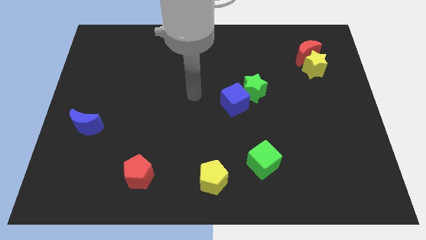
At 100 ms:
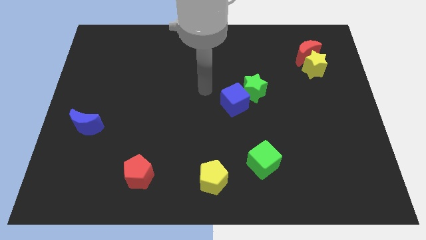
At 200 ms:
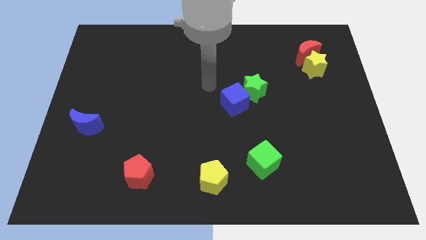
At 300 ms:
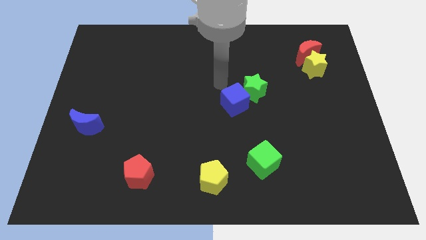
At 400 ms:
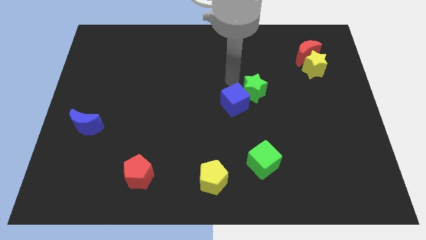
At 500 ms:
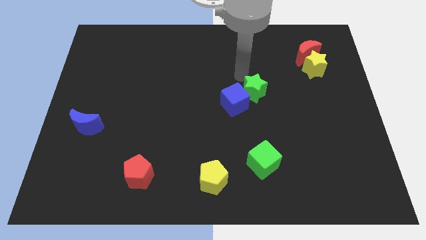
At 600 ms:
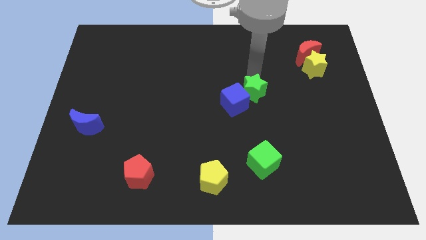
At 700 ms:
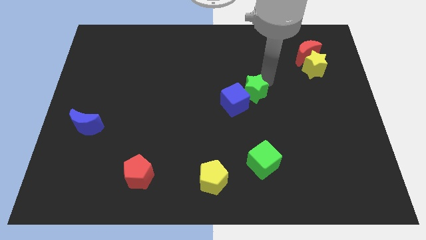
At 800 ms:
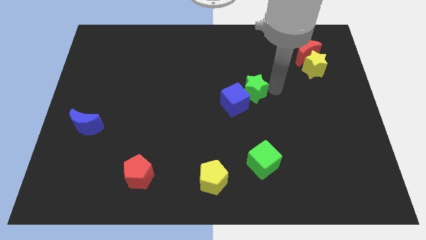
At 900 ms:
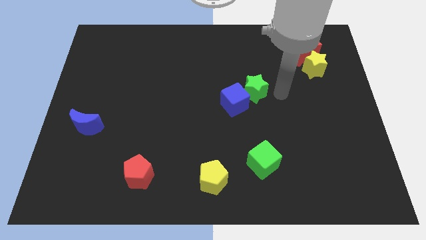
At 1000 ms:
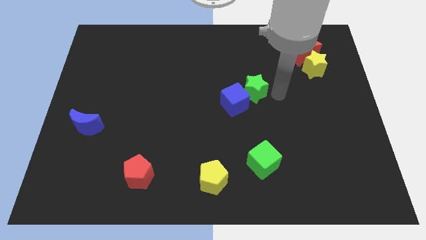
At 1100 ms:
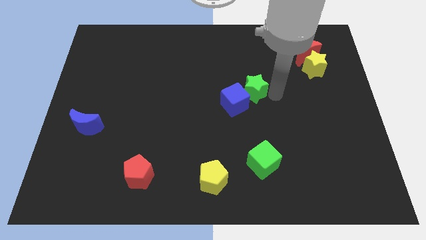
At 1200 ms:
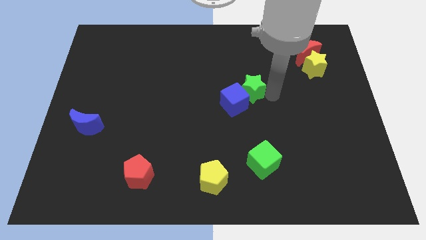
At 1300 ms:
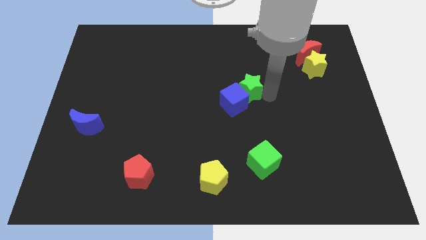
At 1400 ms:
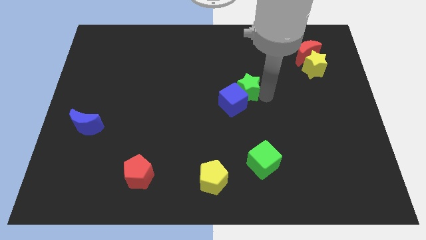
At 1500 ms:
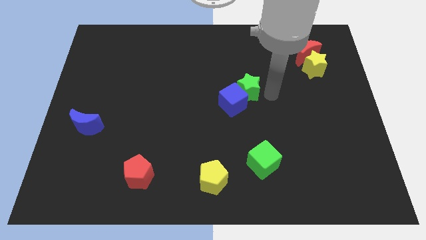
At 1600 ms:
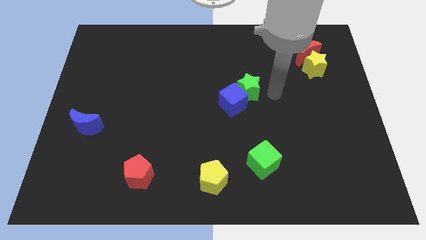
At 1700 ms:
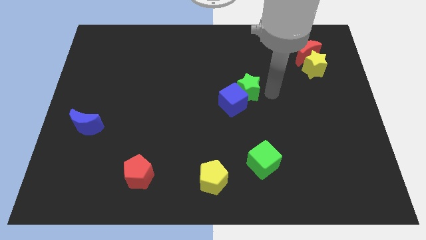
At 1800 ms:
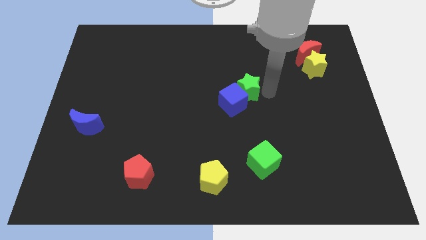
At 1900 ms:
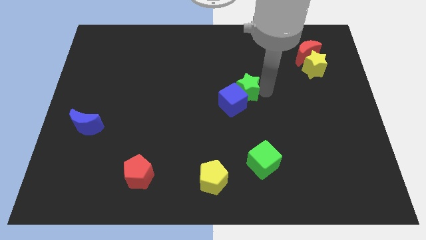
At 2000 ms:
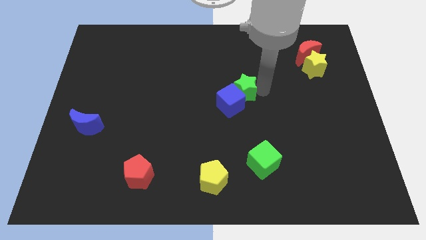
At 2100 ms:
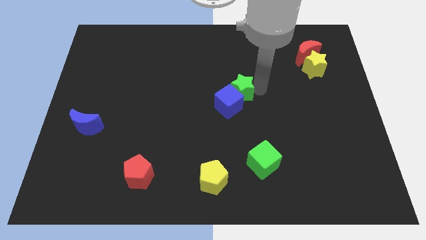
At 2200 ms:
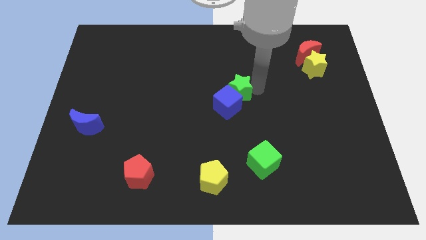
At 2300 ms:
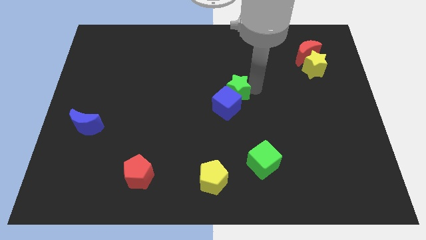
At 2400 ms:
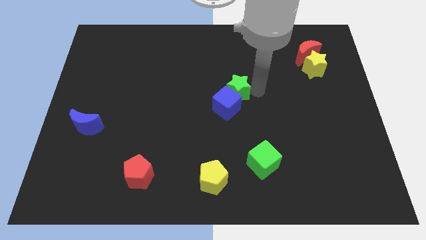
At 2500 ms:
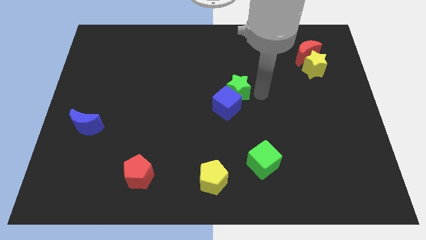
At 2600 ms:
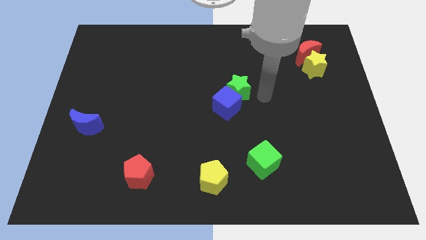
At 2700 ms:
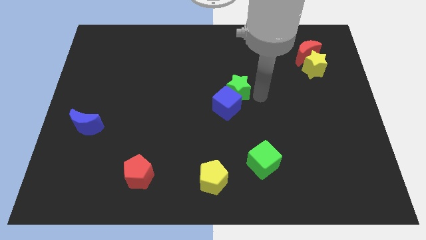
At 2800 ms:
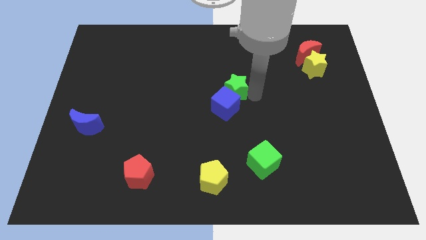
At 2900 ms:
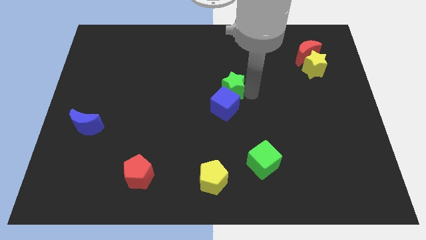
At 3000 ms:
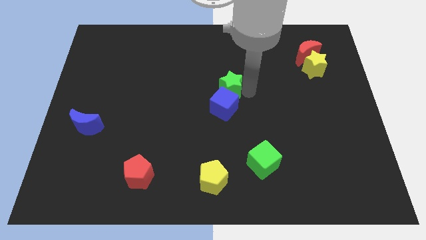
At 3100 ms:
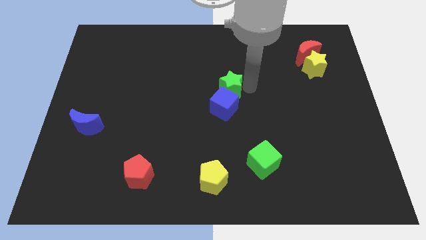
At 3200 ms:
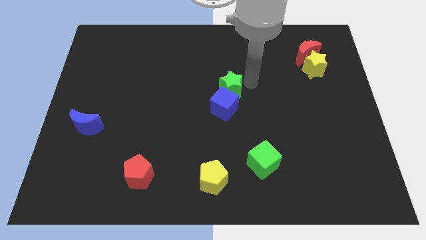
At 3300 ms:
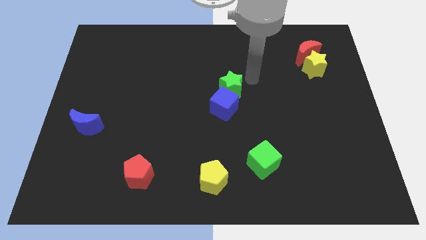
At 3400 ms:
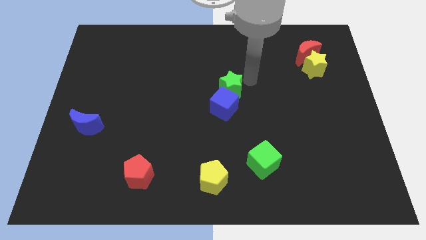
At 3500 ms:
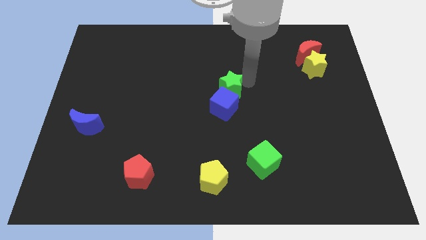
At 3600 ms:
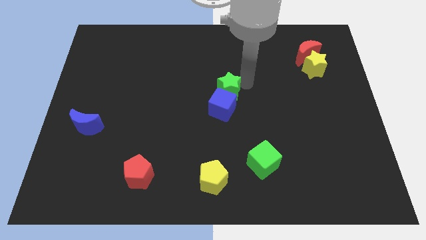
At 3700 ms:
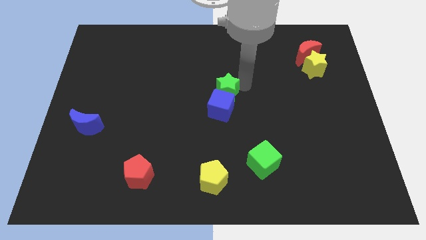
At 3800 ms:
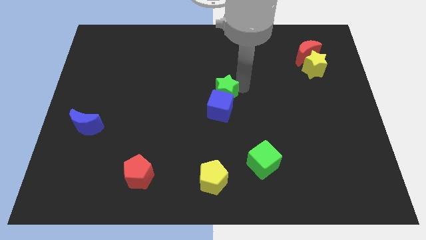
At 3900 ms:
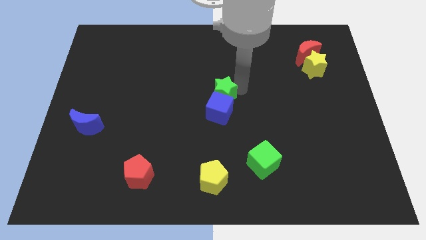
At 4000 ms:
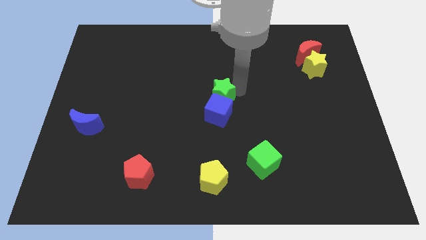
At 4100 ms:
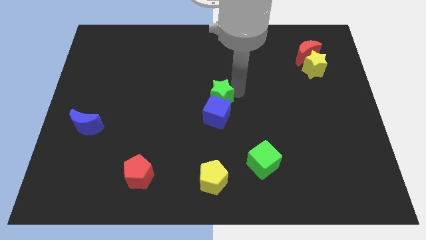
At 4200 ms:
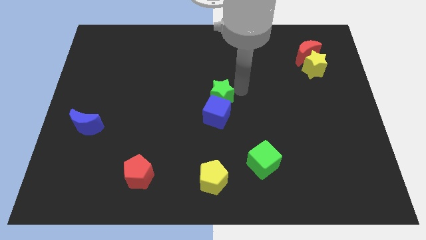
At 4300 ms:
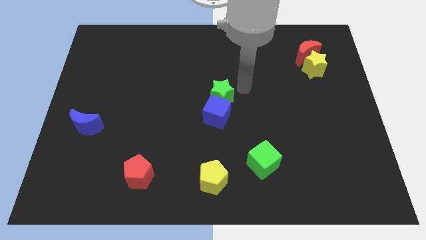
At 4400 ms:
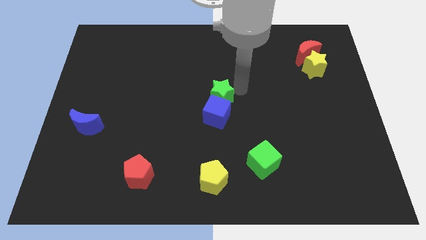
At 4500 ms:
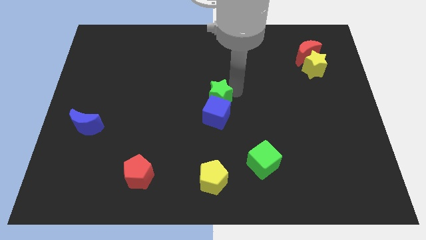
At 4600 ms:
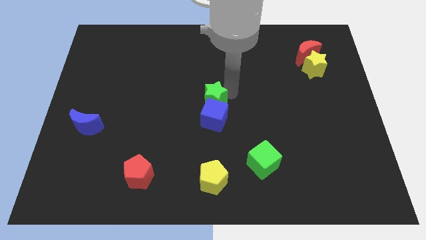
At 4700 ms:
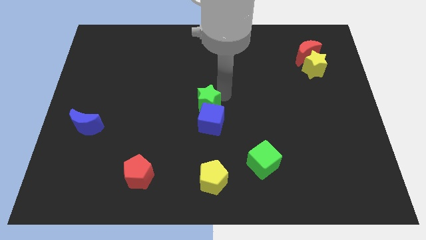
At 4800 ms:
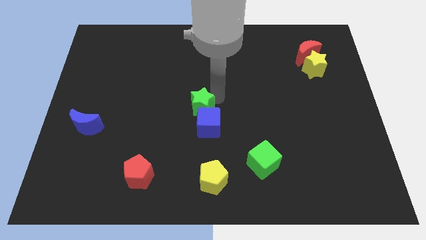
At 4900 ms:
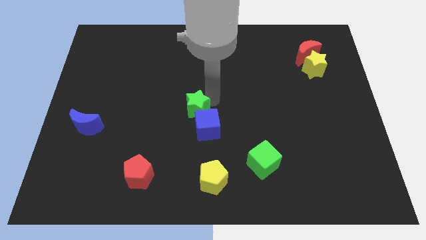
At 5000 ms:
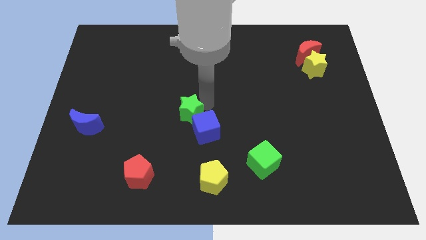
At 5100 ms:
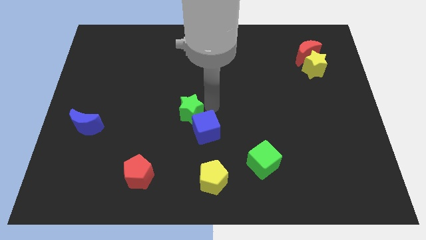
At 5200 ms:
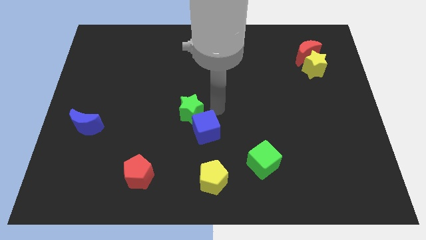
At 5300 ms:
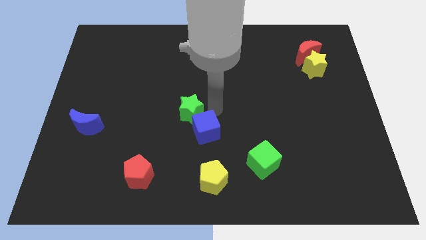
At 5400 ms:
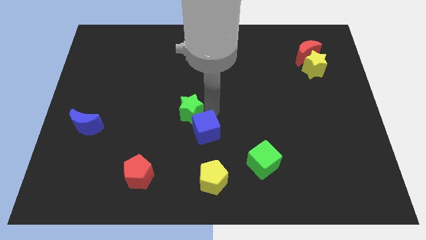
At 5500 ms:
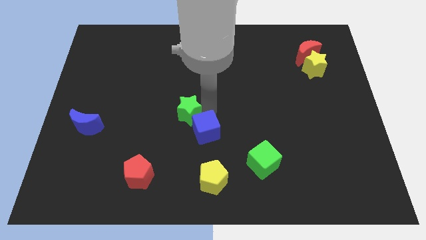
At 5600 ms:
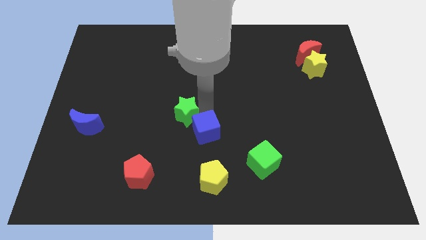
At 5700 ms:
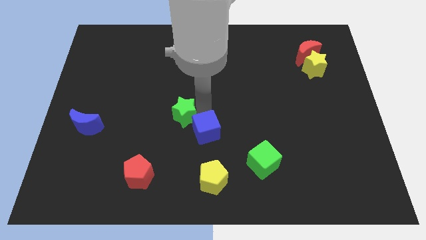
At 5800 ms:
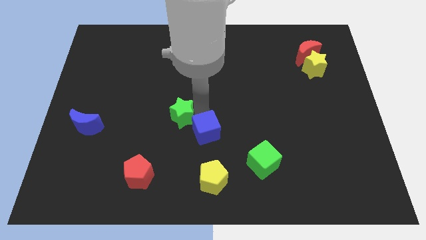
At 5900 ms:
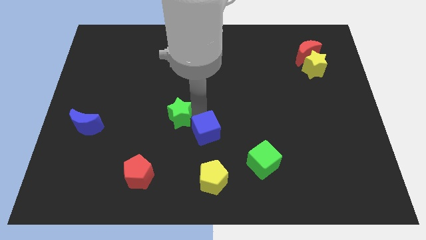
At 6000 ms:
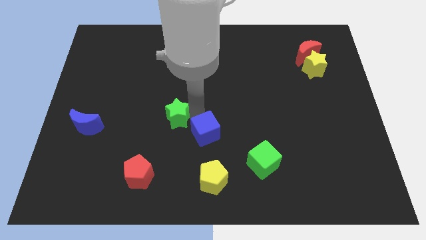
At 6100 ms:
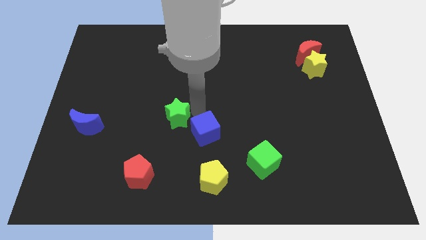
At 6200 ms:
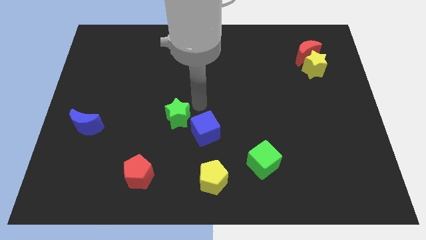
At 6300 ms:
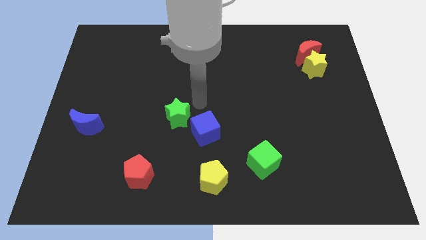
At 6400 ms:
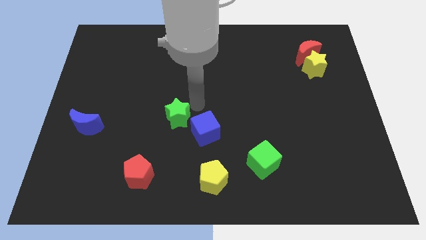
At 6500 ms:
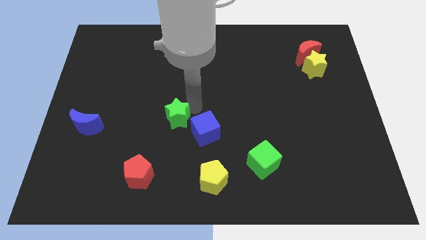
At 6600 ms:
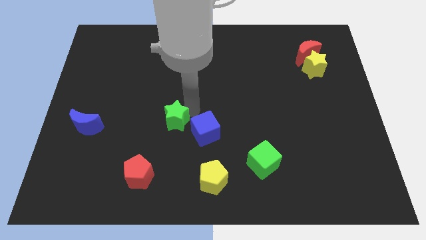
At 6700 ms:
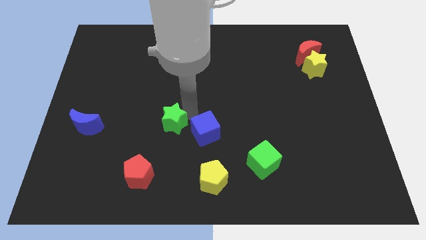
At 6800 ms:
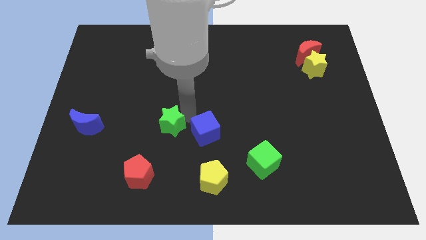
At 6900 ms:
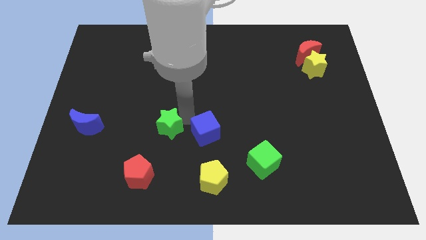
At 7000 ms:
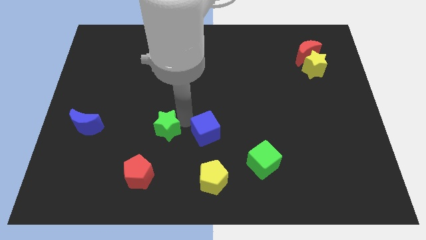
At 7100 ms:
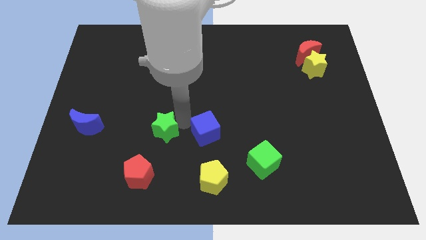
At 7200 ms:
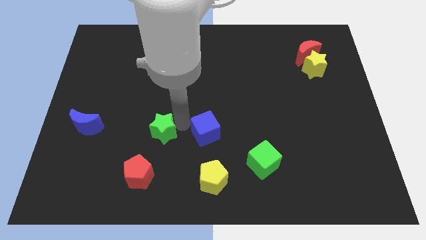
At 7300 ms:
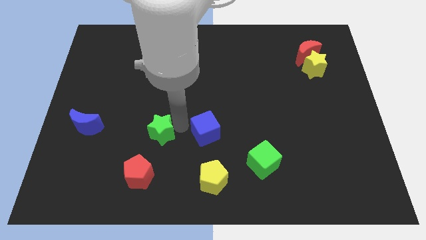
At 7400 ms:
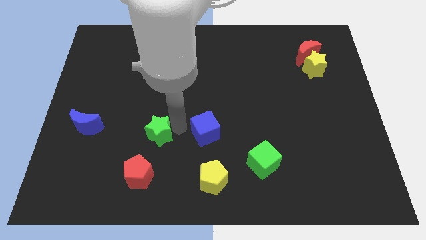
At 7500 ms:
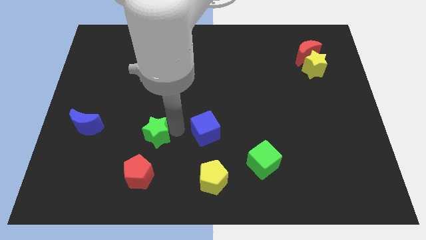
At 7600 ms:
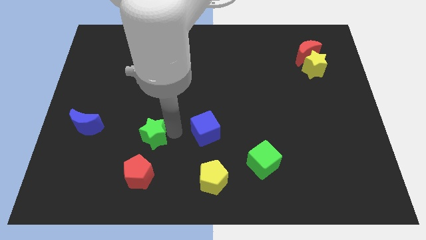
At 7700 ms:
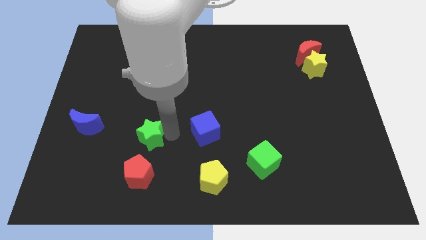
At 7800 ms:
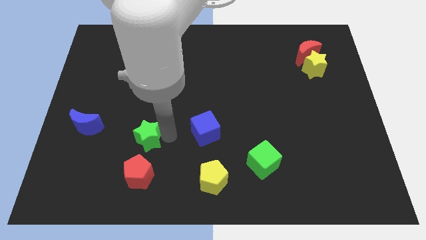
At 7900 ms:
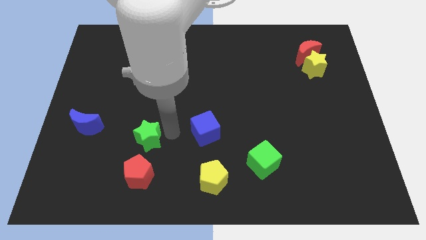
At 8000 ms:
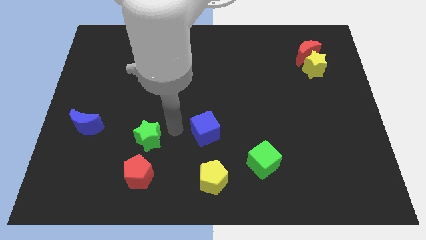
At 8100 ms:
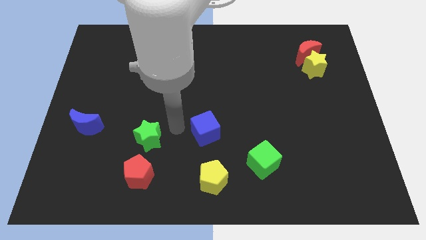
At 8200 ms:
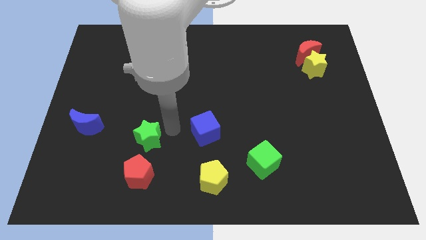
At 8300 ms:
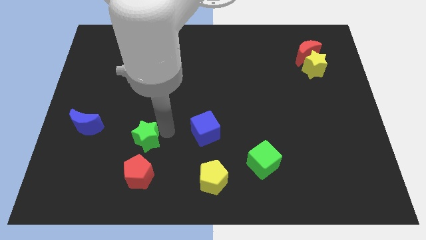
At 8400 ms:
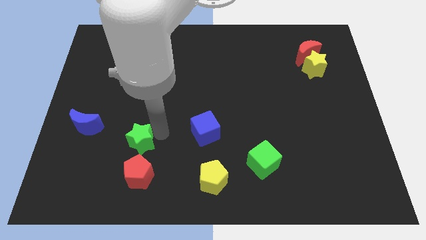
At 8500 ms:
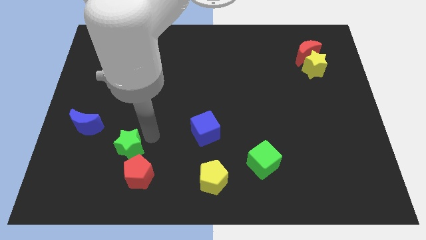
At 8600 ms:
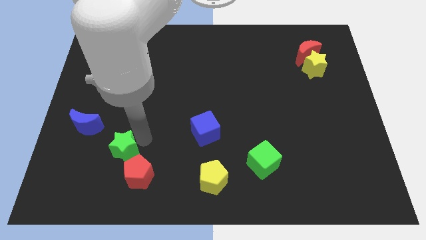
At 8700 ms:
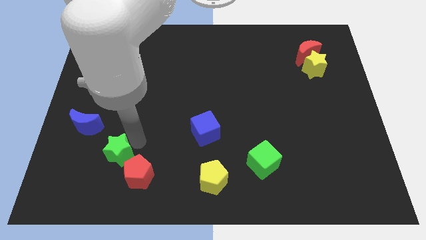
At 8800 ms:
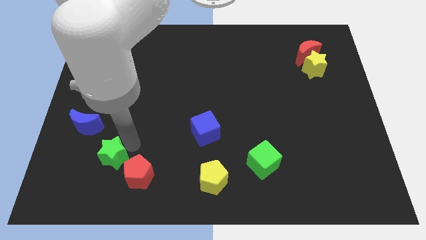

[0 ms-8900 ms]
slide the green star to the left of the red pentagon
